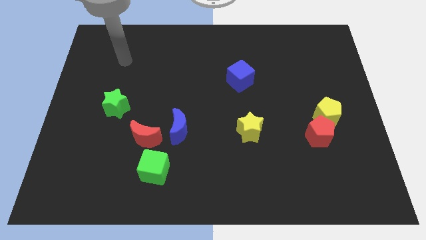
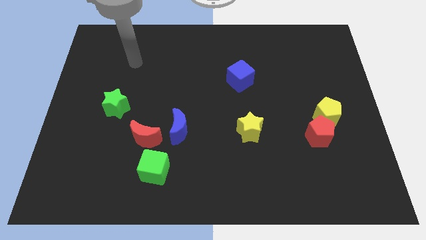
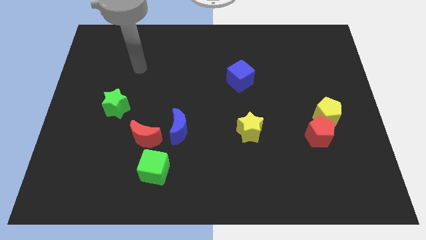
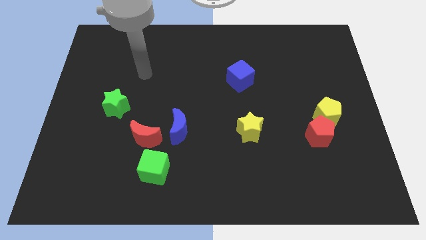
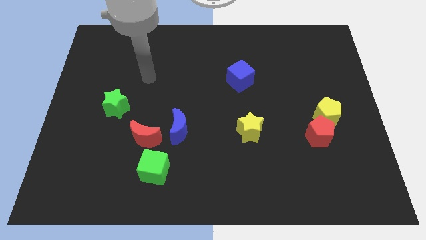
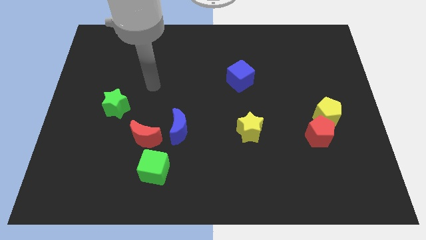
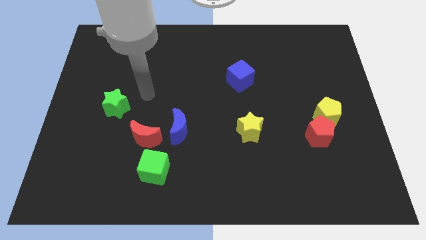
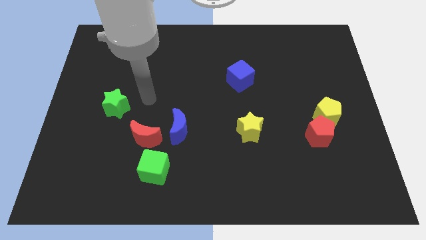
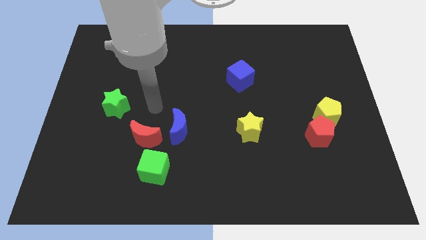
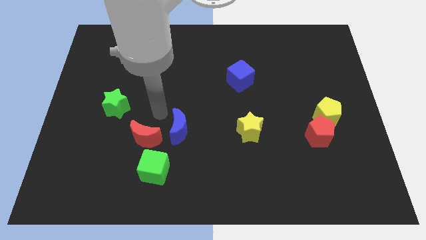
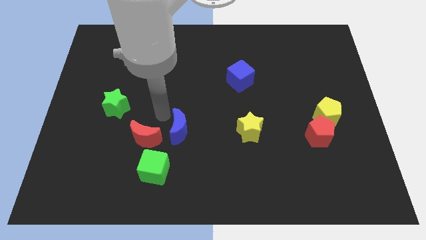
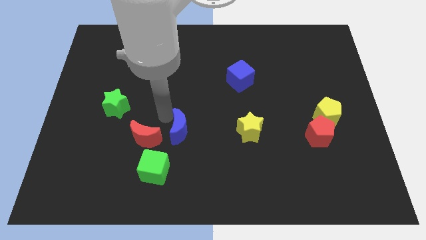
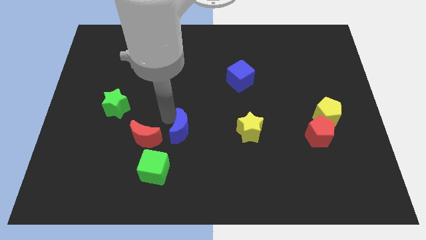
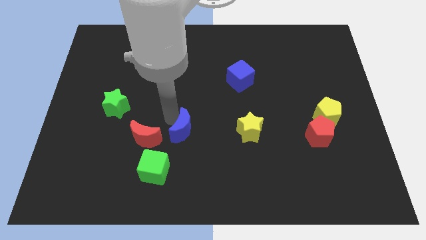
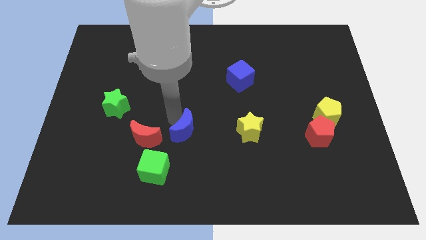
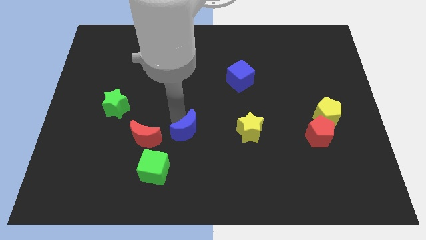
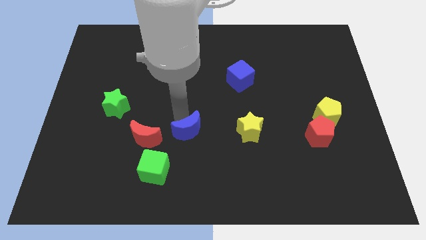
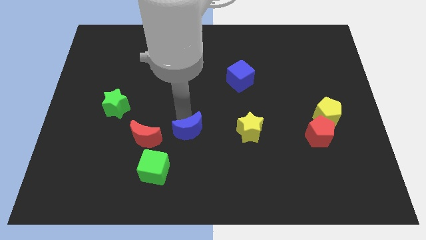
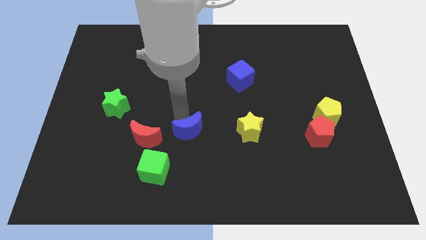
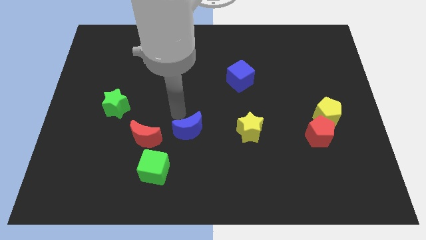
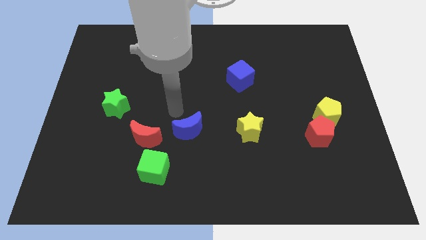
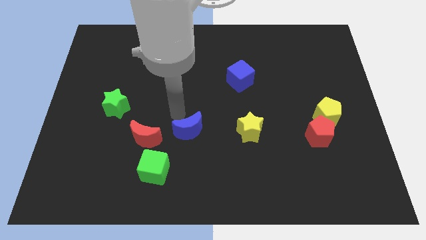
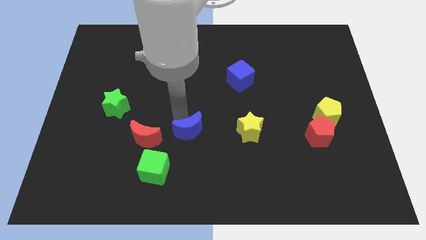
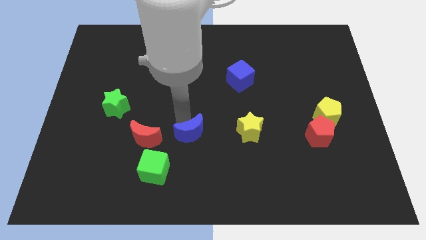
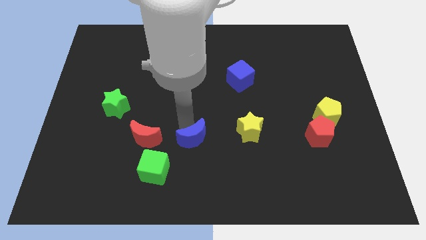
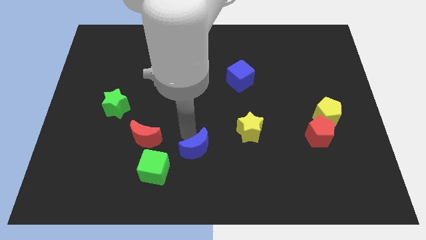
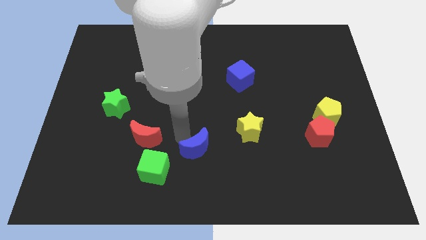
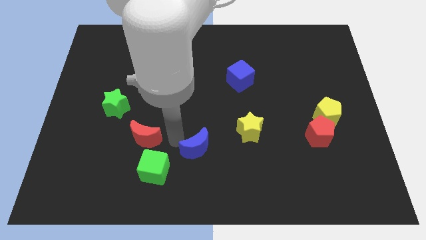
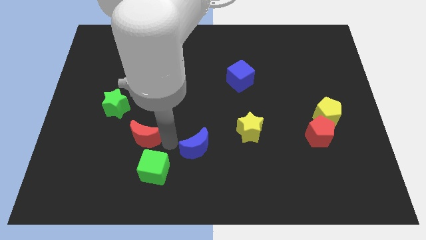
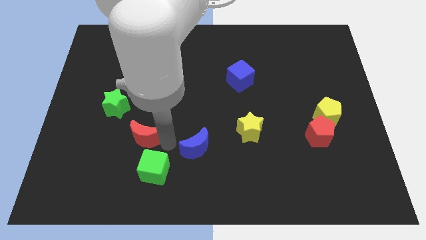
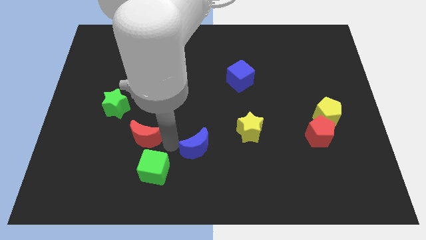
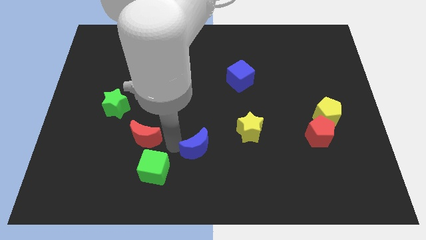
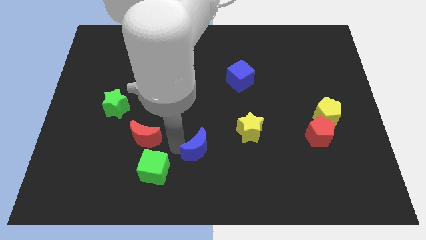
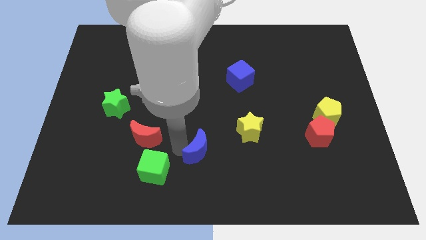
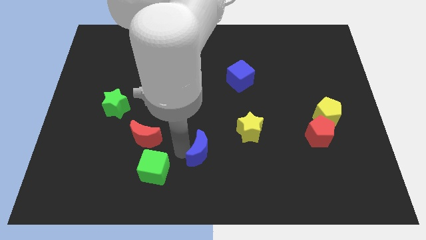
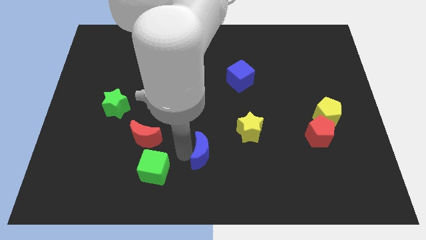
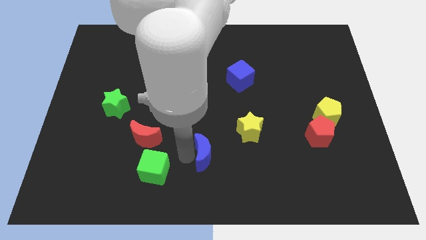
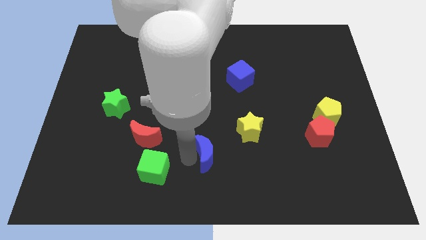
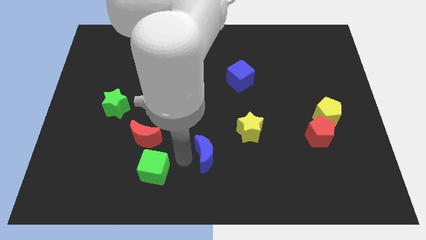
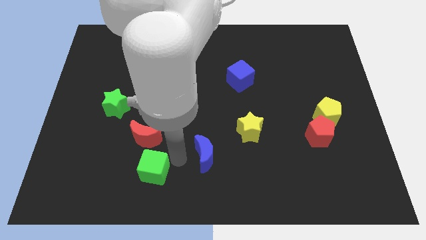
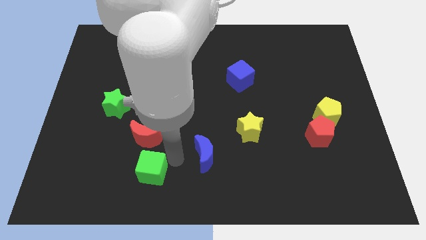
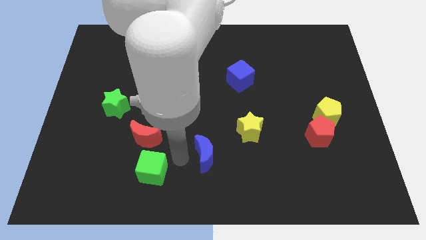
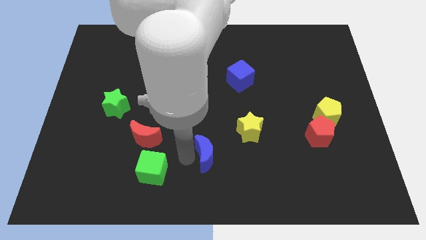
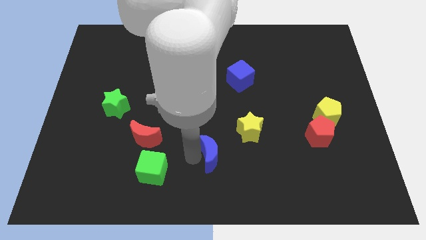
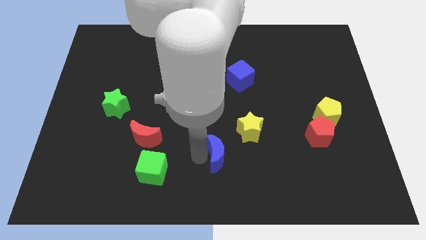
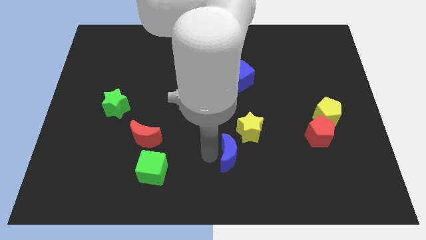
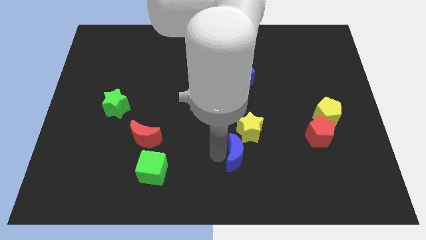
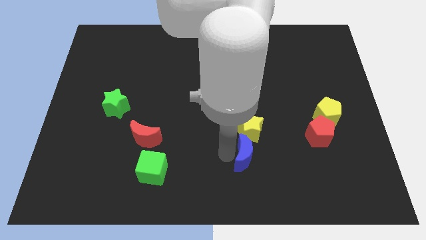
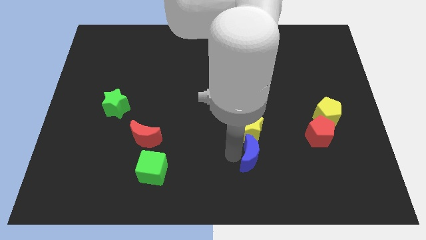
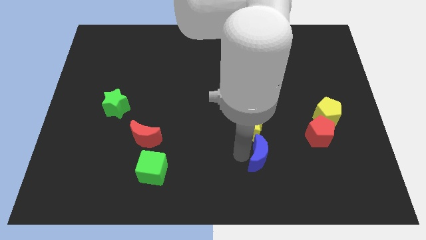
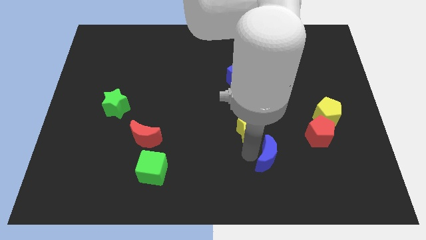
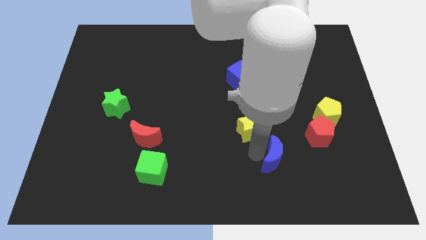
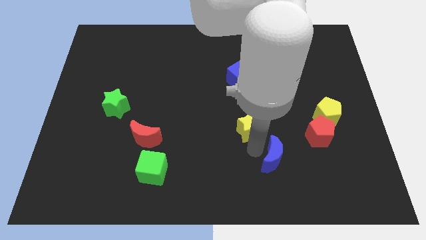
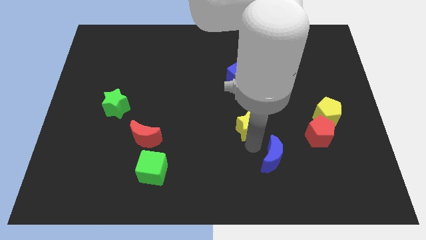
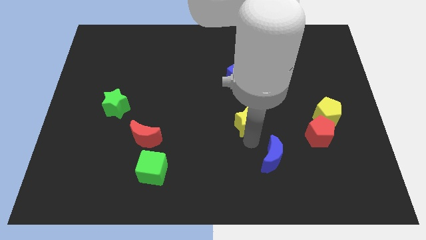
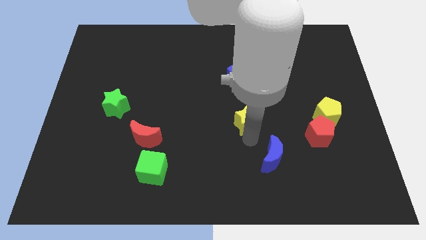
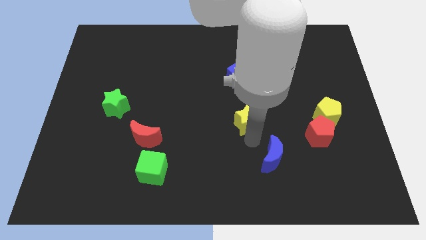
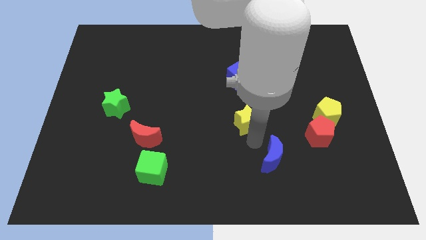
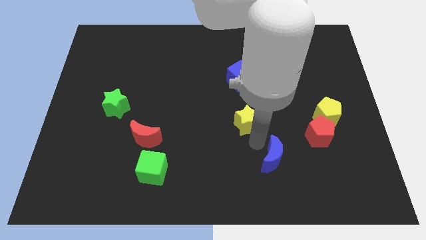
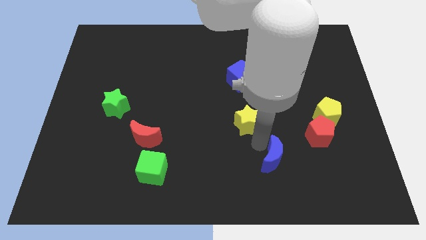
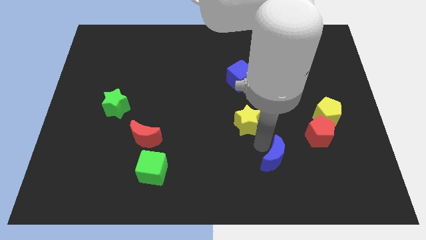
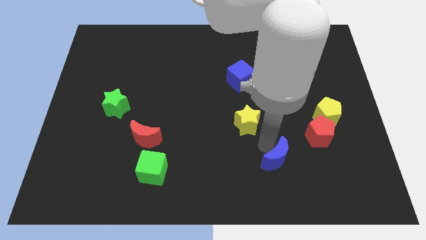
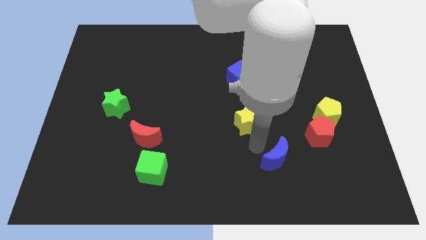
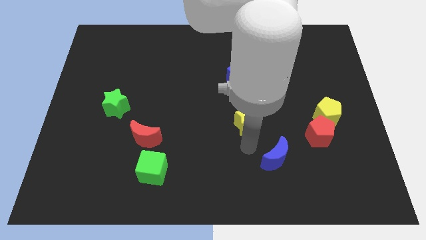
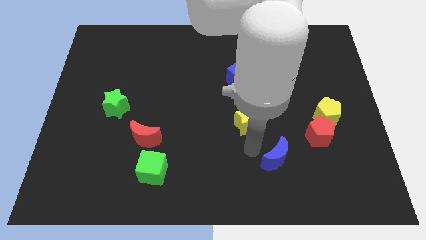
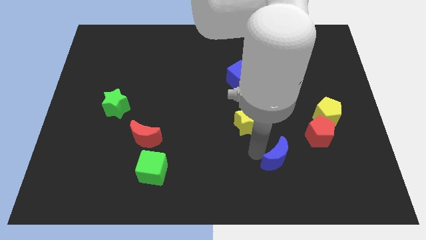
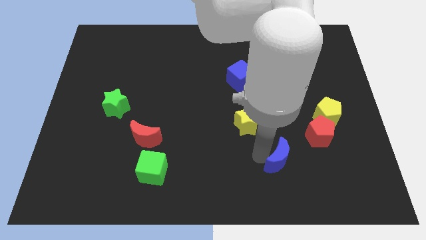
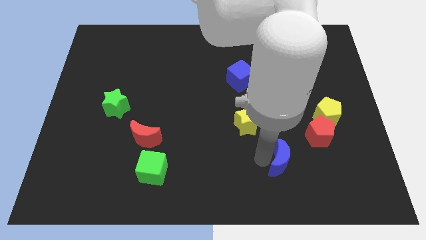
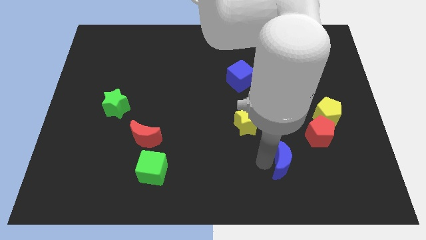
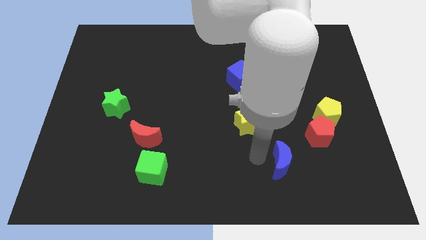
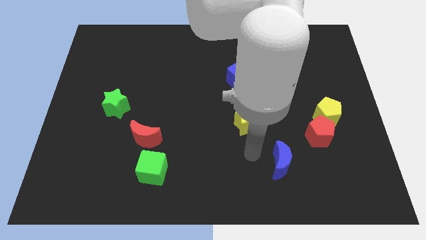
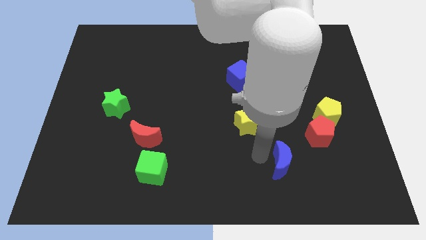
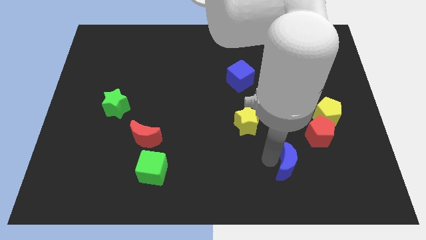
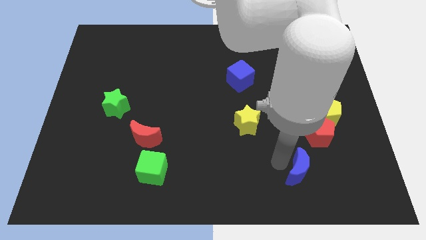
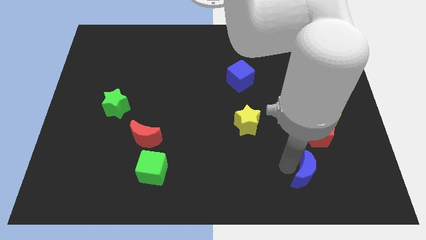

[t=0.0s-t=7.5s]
slide the blue moon to the bottom side of the red pentagon

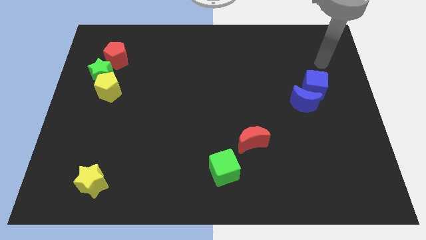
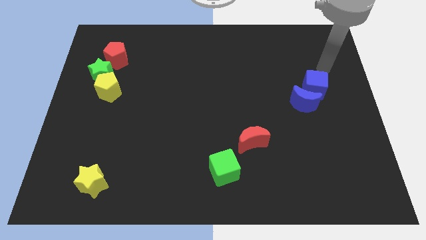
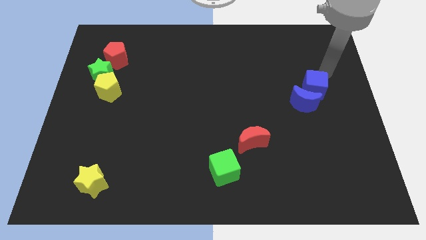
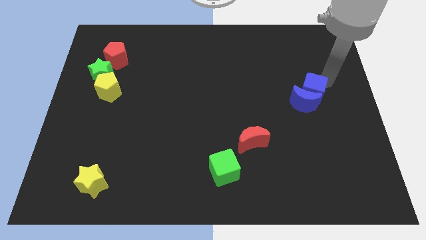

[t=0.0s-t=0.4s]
slide the blue moon just left of the blue cube
